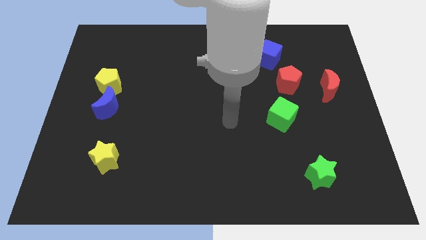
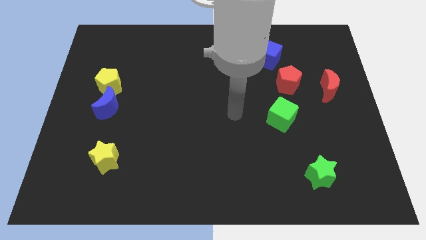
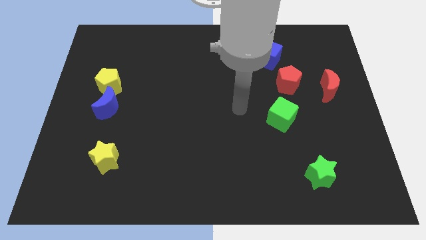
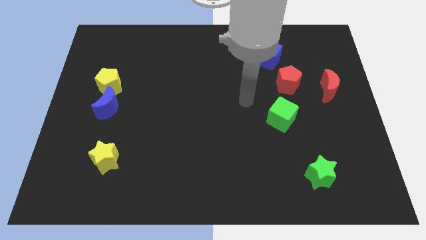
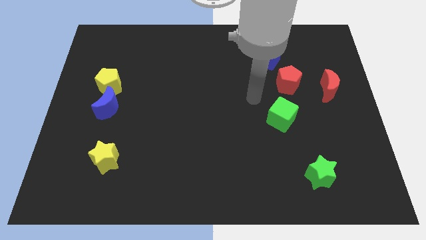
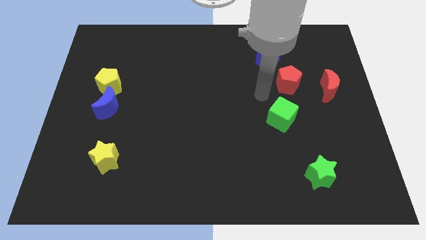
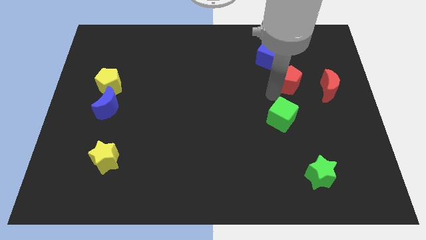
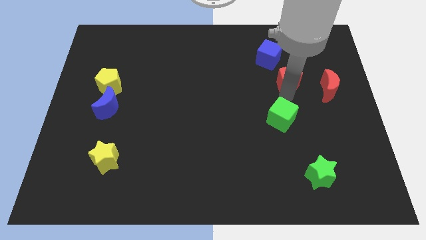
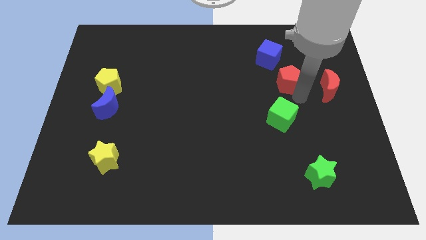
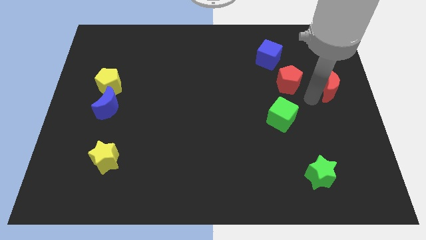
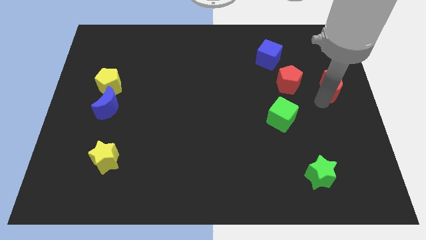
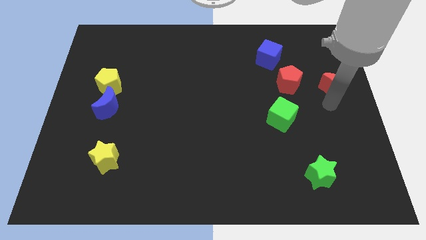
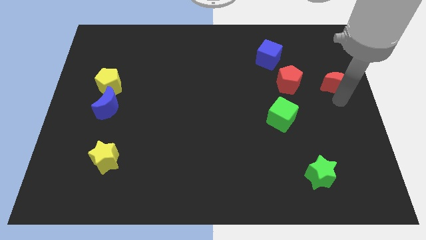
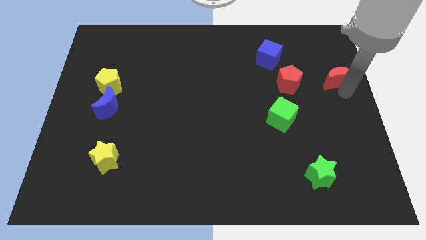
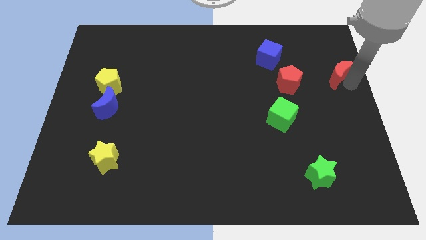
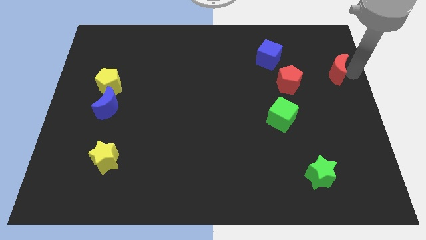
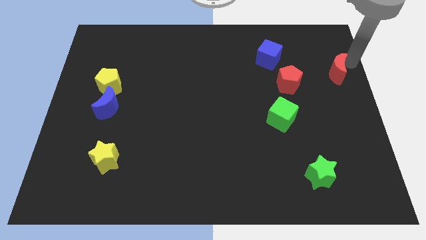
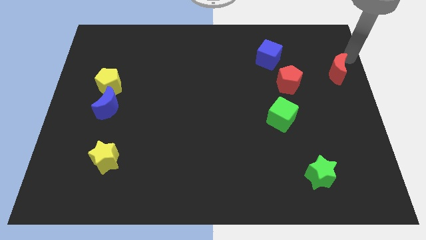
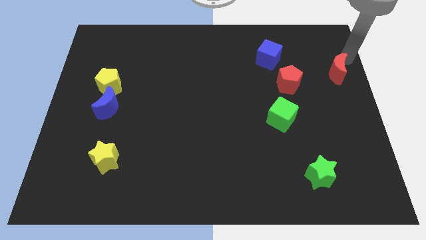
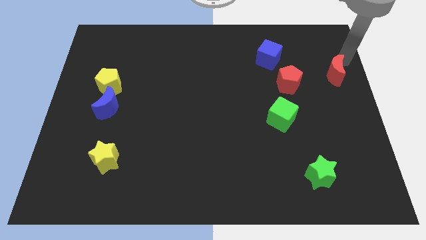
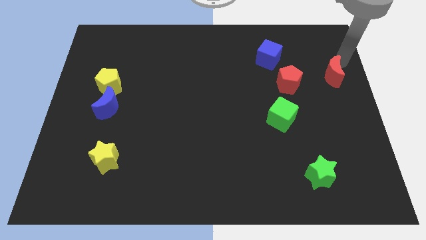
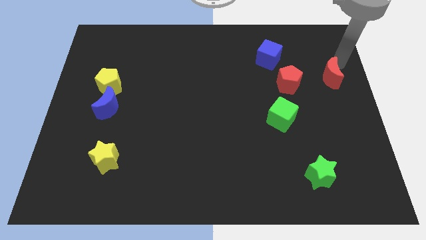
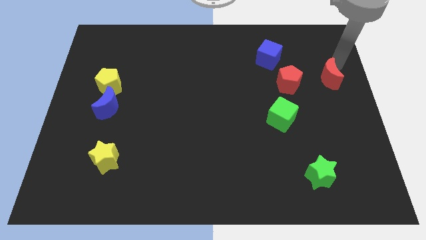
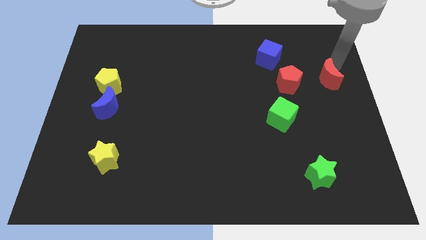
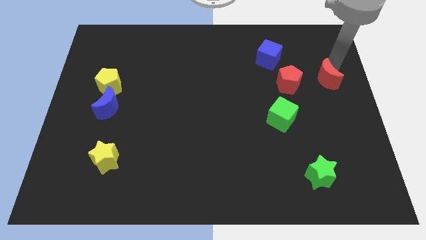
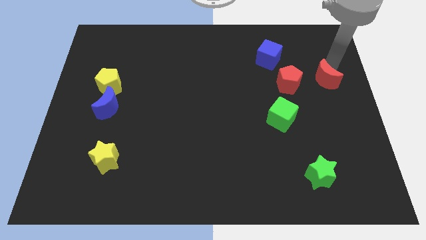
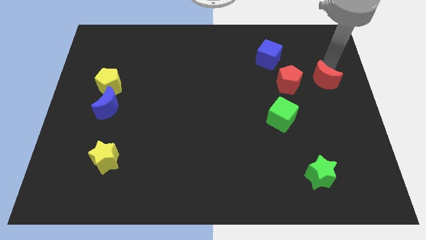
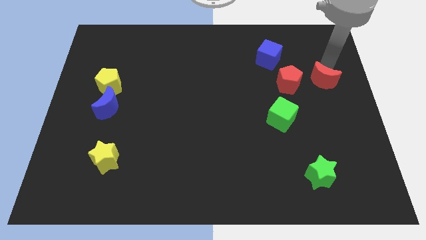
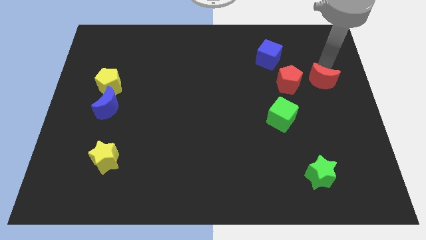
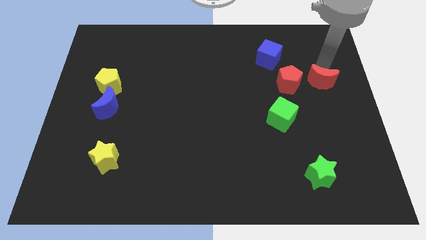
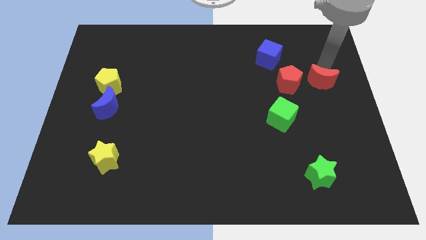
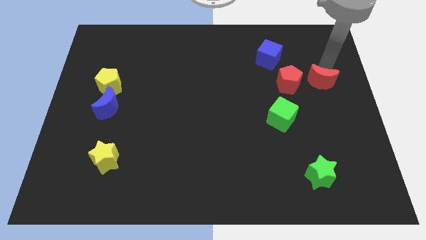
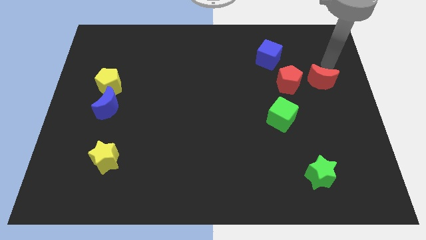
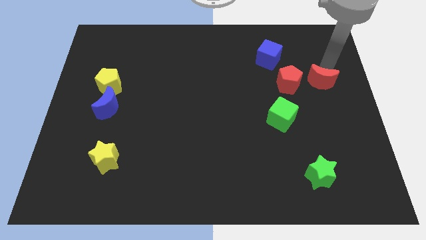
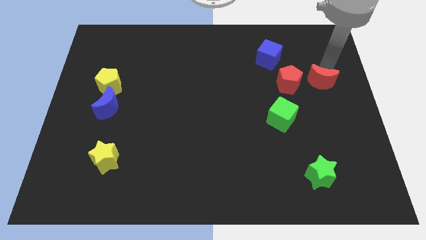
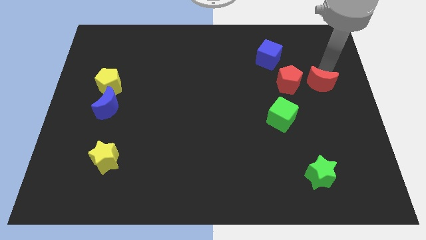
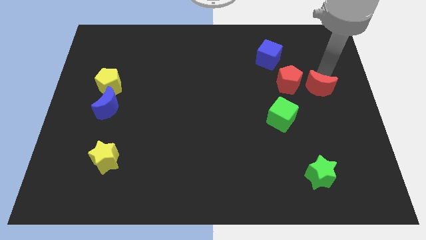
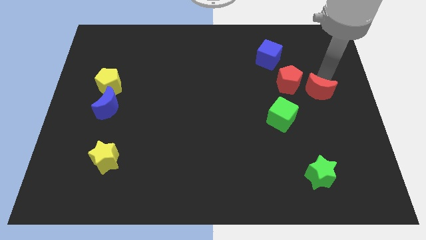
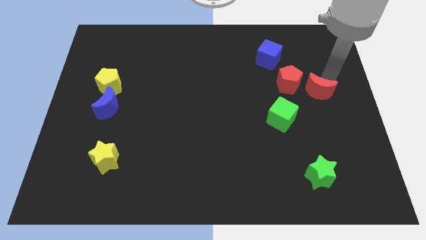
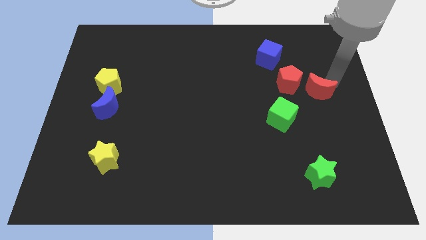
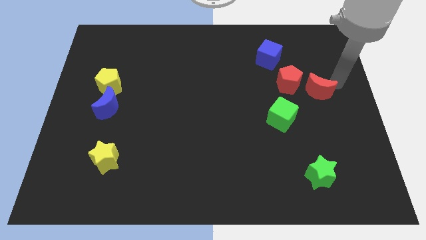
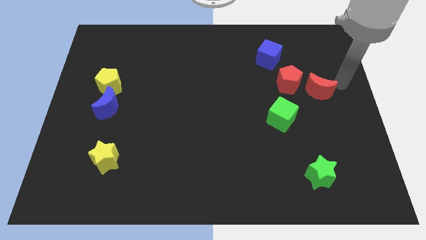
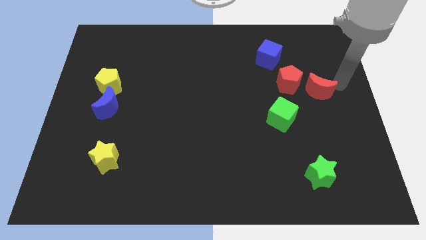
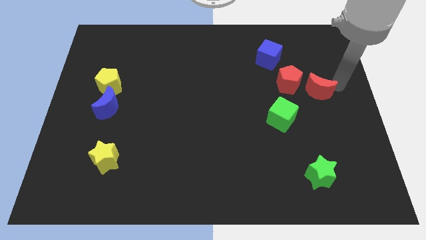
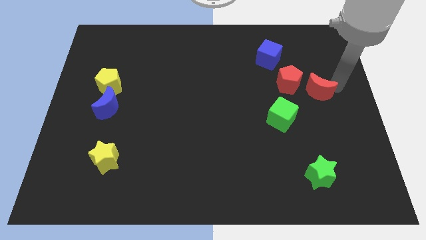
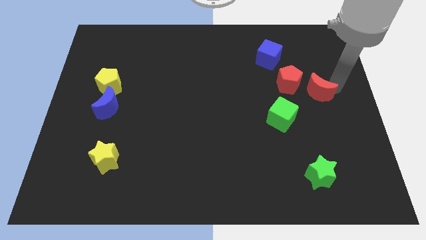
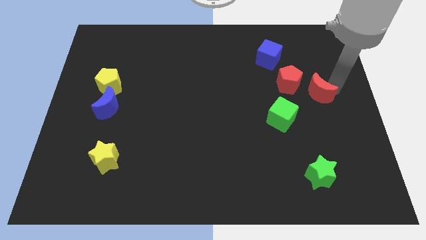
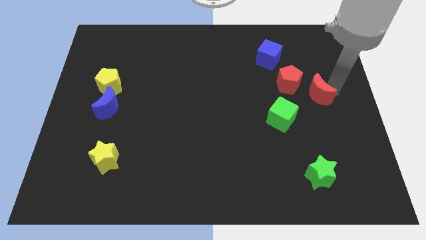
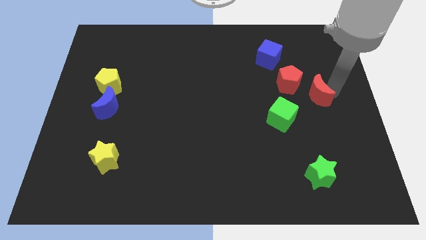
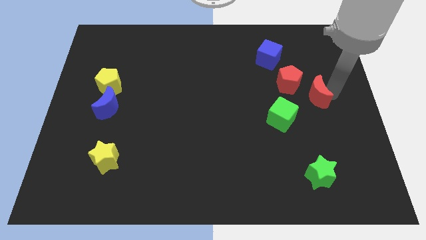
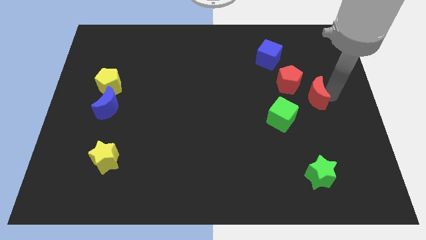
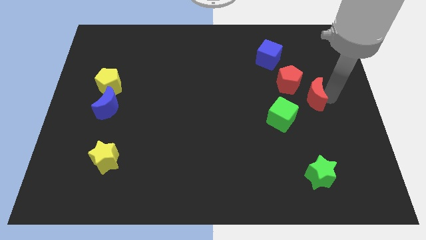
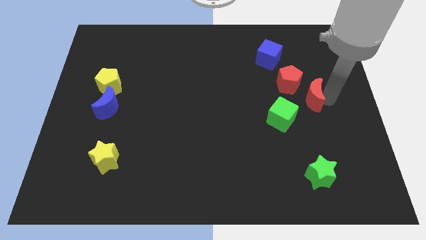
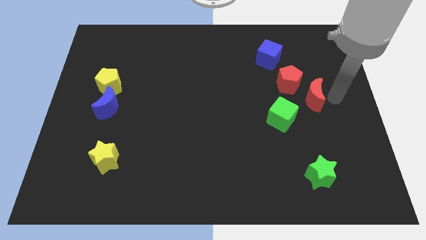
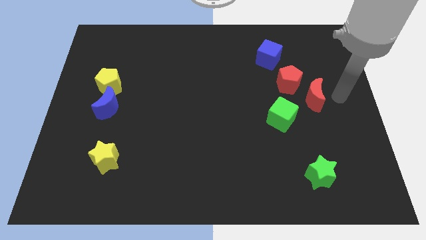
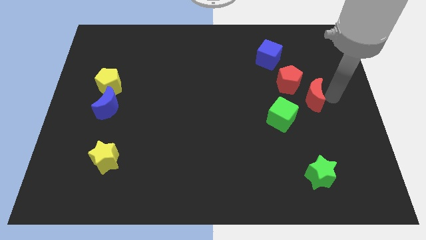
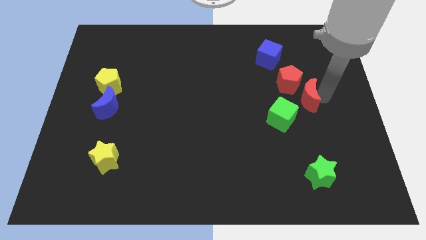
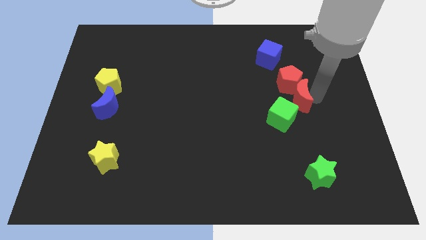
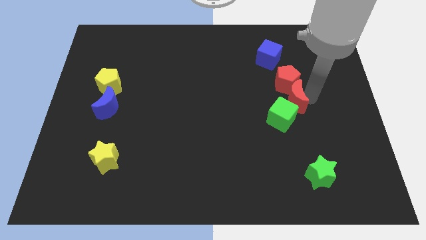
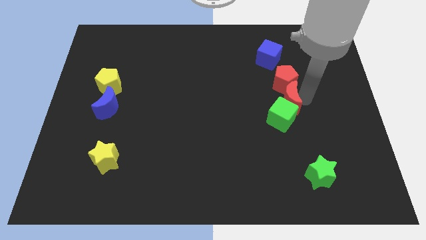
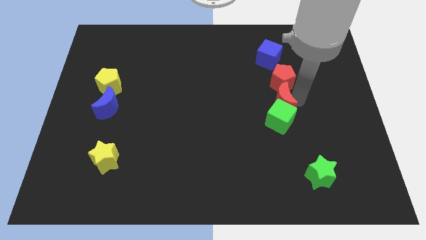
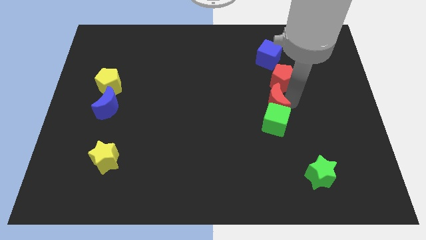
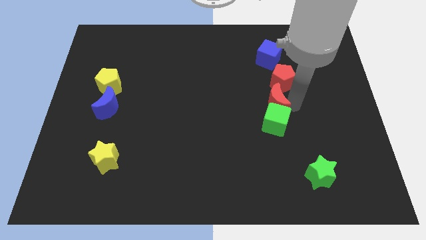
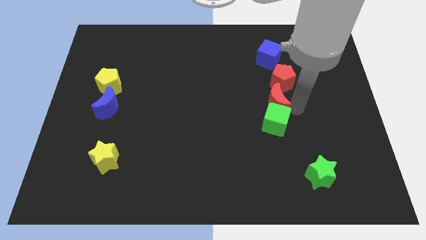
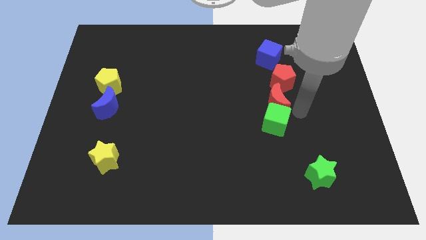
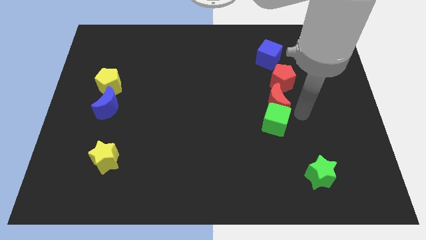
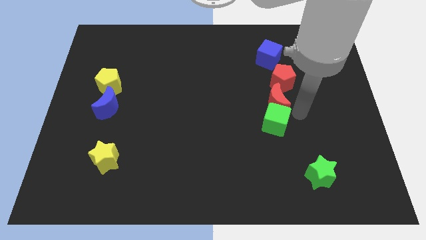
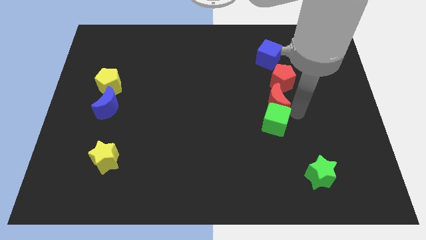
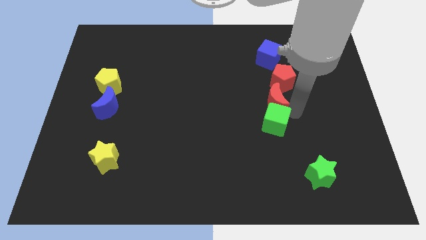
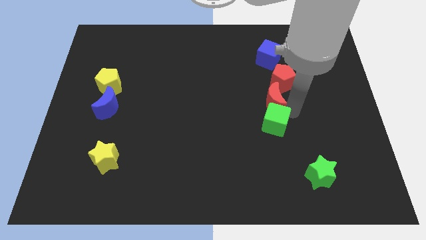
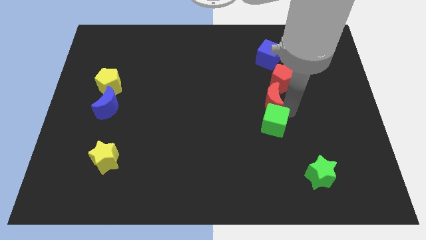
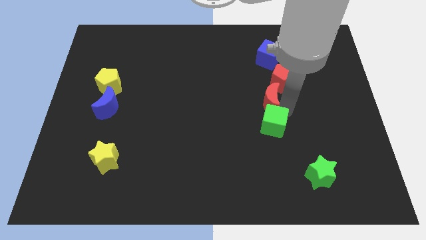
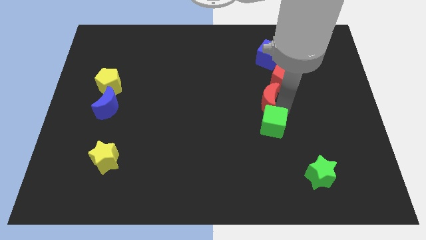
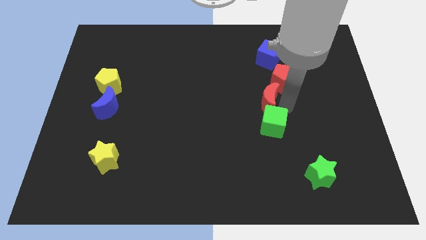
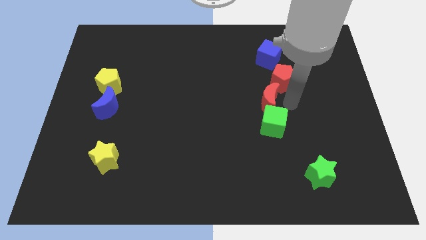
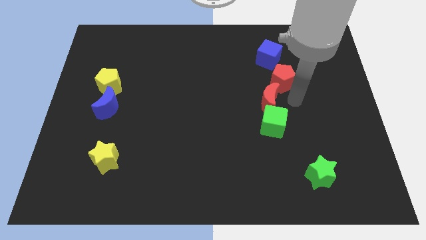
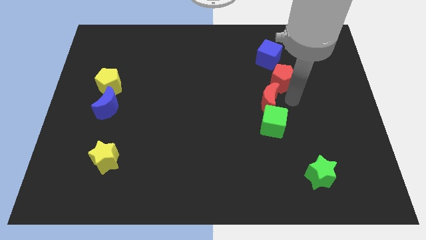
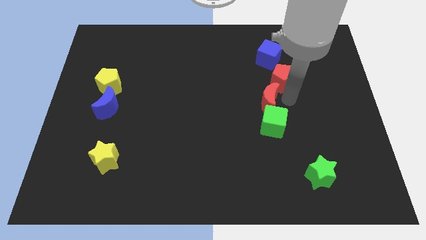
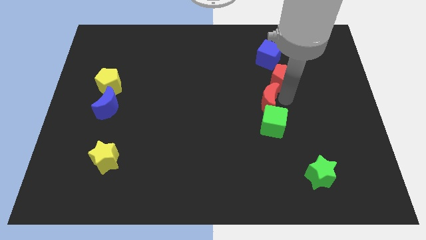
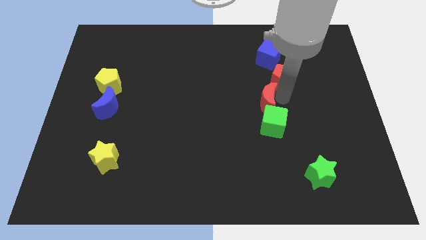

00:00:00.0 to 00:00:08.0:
put the red moon to the center
